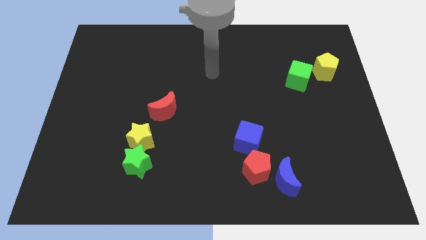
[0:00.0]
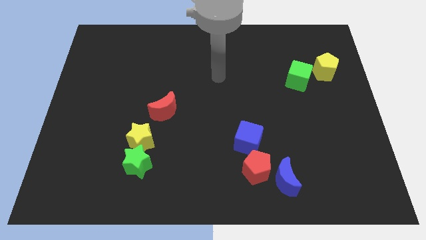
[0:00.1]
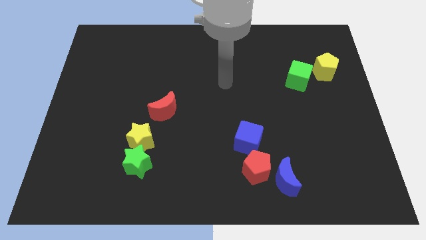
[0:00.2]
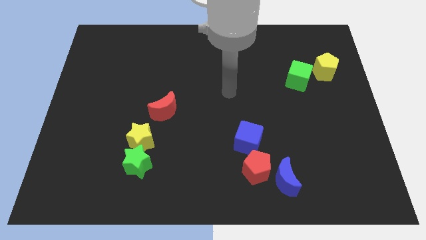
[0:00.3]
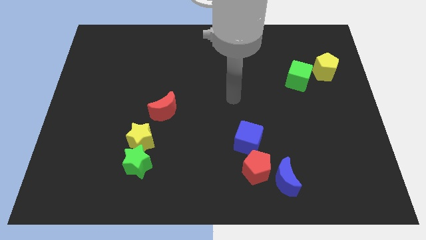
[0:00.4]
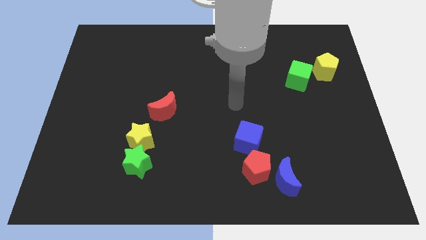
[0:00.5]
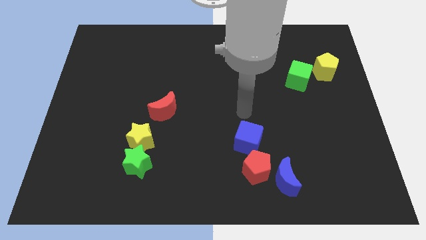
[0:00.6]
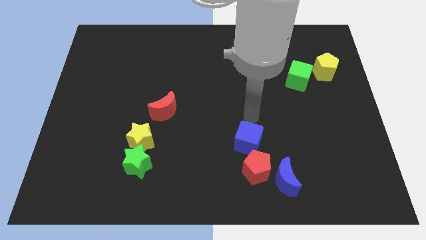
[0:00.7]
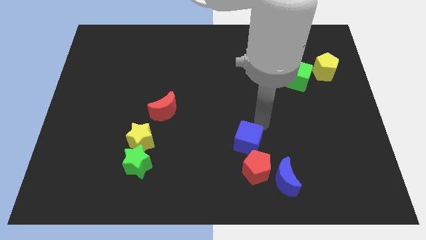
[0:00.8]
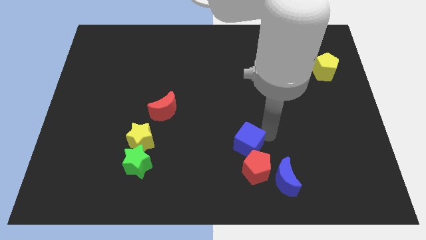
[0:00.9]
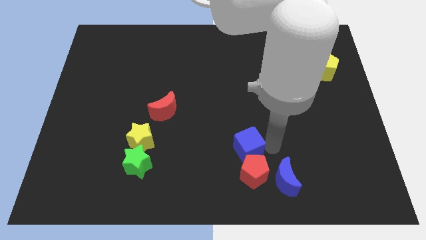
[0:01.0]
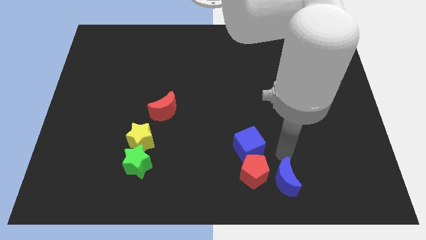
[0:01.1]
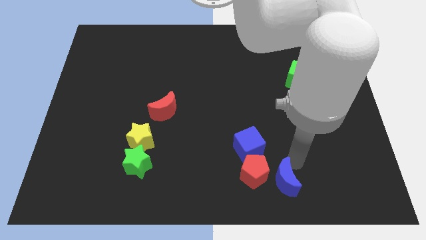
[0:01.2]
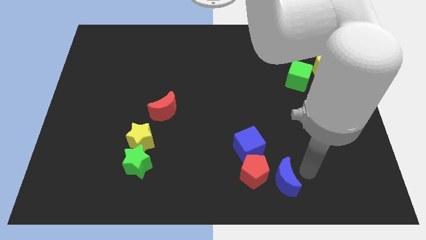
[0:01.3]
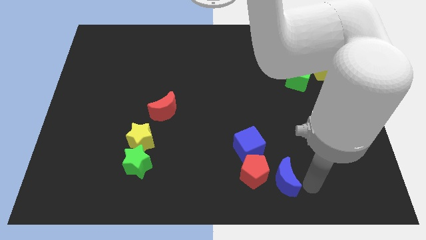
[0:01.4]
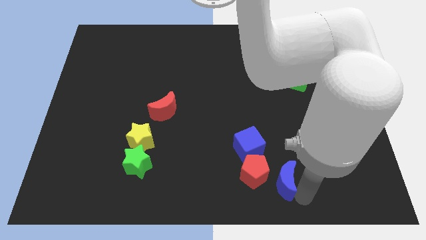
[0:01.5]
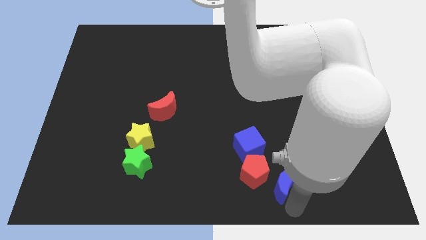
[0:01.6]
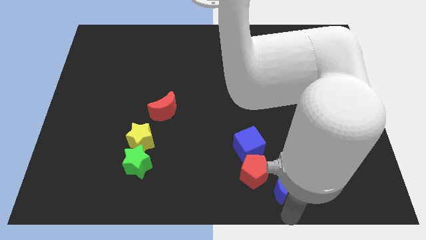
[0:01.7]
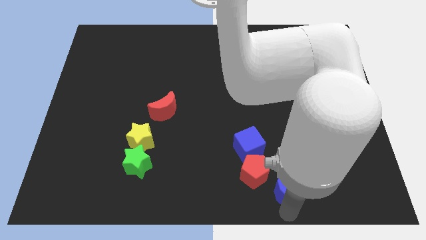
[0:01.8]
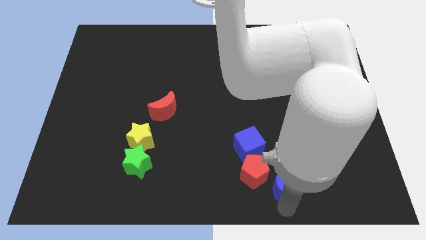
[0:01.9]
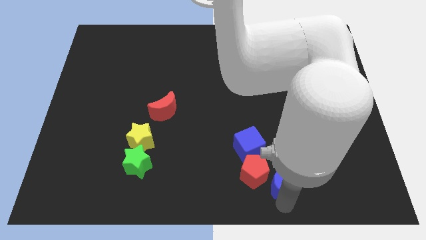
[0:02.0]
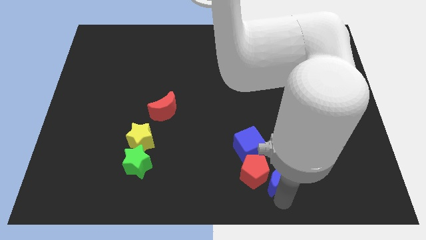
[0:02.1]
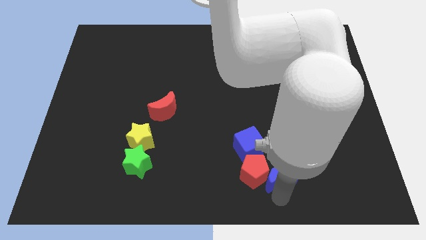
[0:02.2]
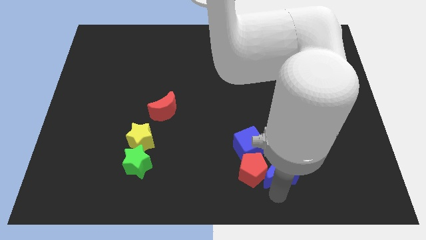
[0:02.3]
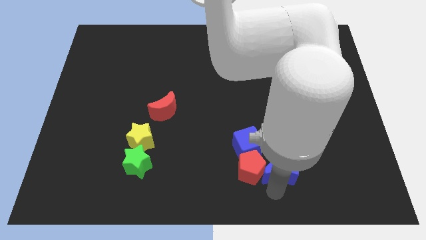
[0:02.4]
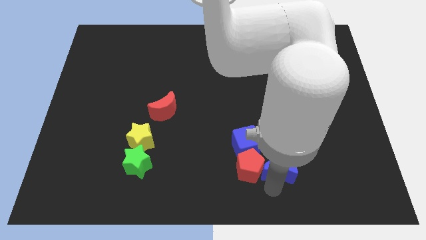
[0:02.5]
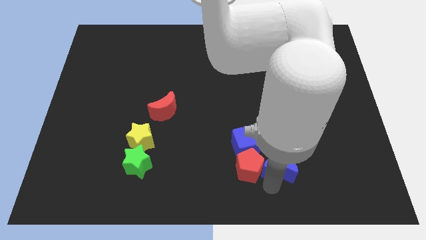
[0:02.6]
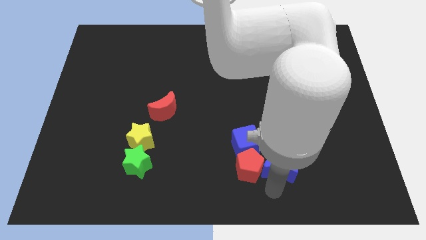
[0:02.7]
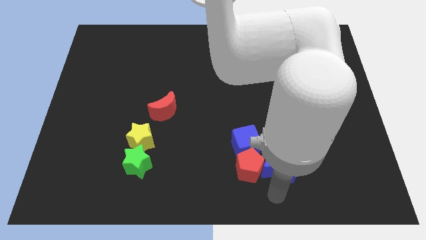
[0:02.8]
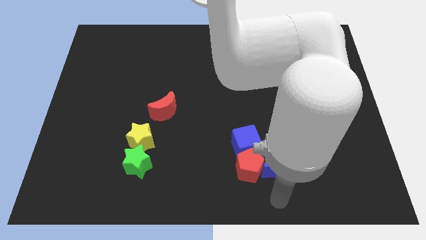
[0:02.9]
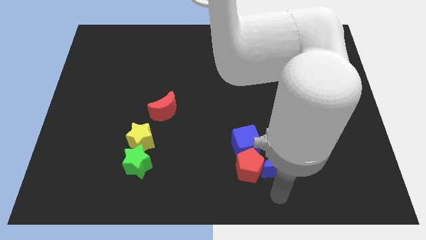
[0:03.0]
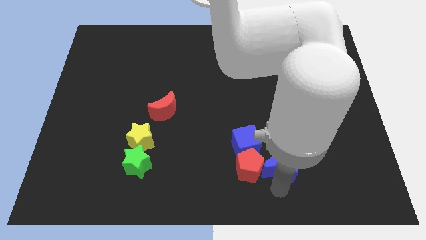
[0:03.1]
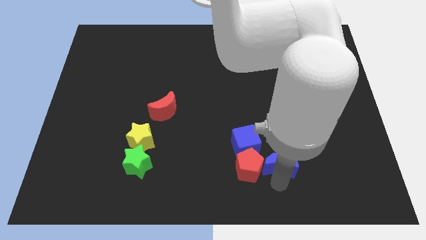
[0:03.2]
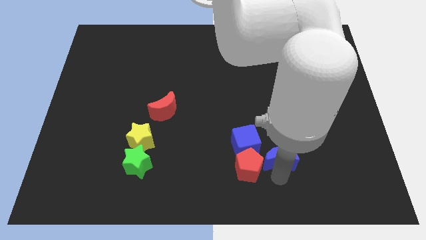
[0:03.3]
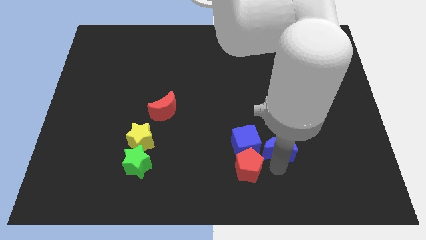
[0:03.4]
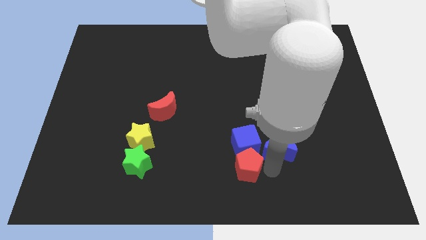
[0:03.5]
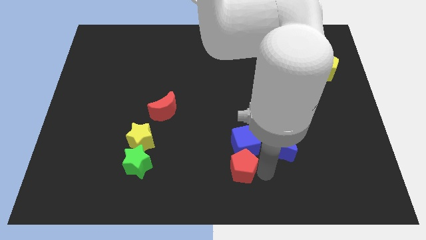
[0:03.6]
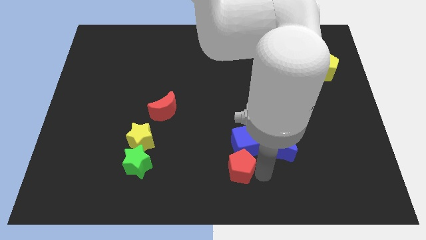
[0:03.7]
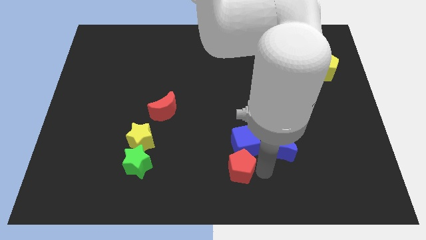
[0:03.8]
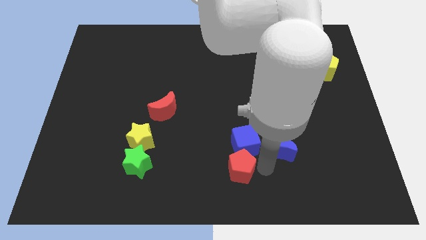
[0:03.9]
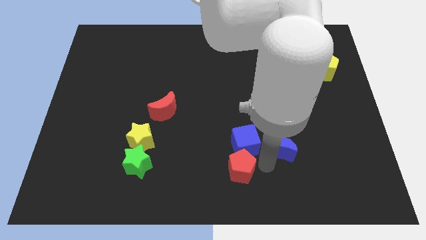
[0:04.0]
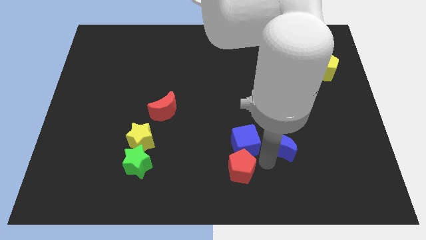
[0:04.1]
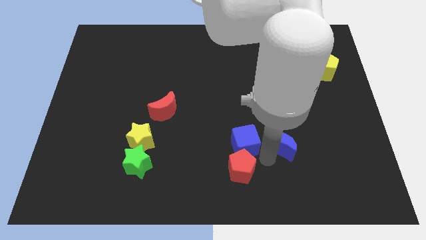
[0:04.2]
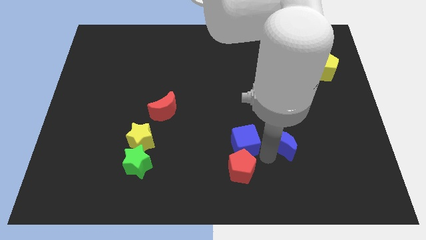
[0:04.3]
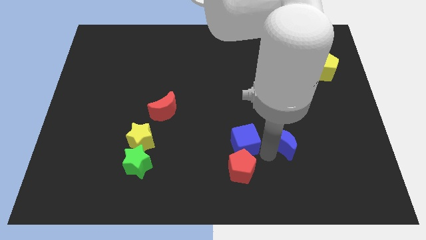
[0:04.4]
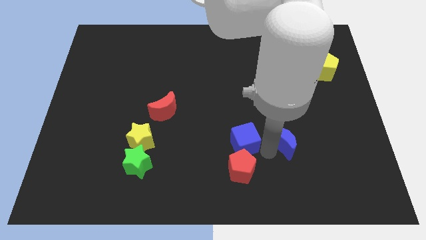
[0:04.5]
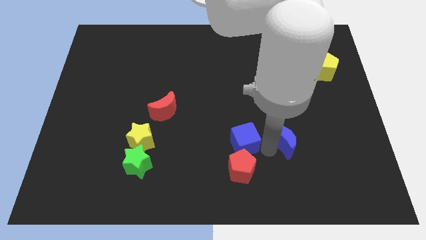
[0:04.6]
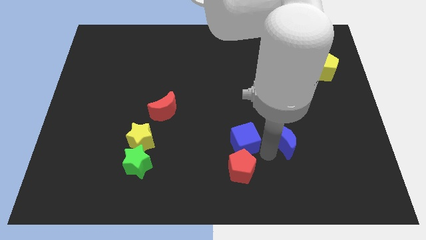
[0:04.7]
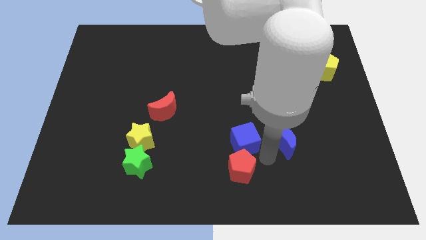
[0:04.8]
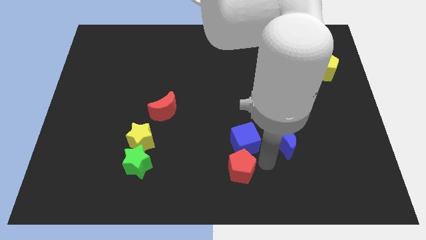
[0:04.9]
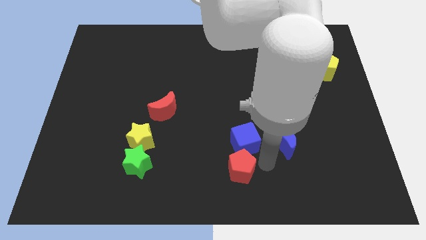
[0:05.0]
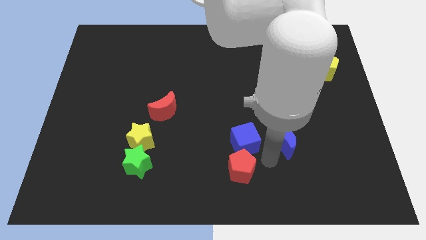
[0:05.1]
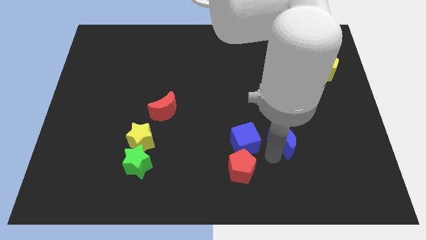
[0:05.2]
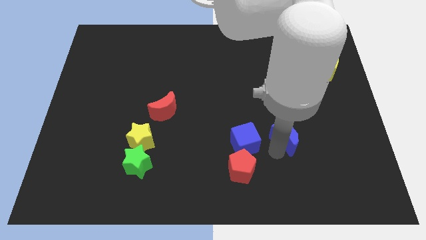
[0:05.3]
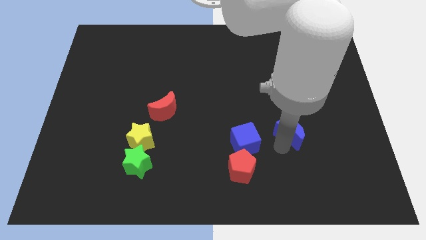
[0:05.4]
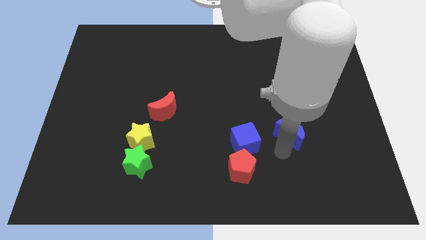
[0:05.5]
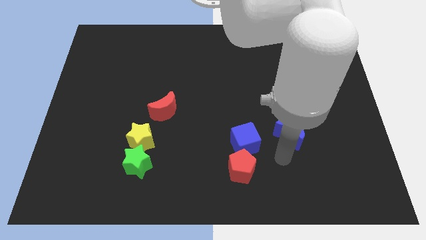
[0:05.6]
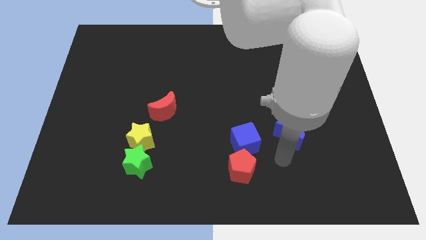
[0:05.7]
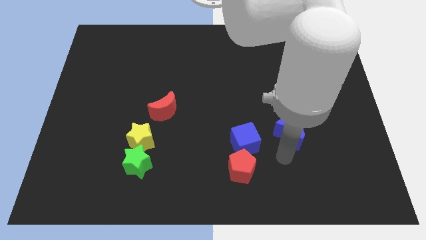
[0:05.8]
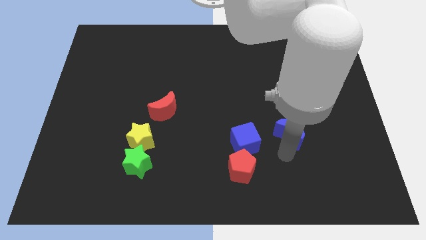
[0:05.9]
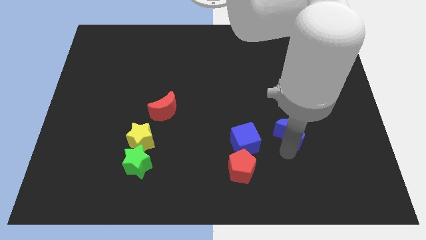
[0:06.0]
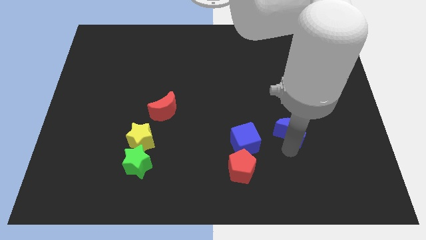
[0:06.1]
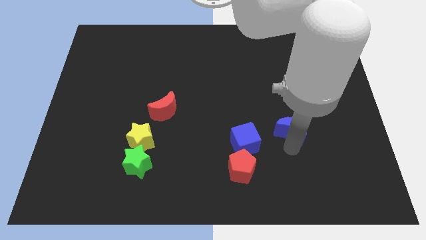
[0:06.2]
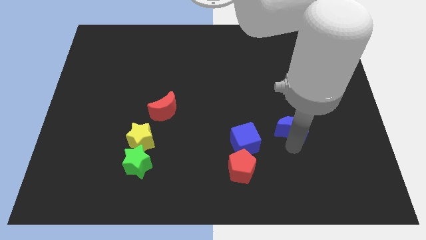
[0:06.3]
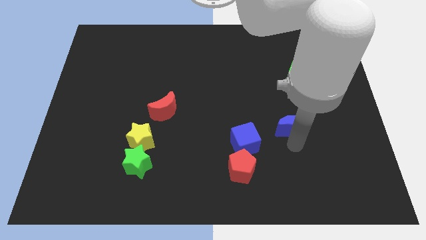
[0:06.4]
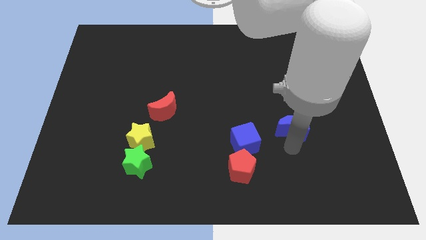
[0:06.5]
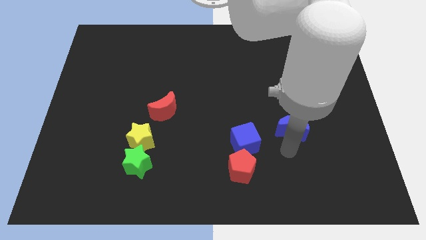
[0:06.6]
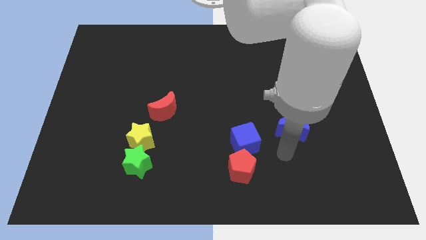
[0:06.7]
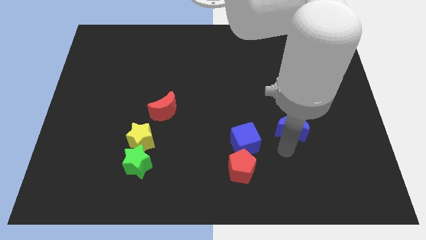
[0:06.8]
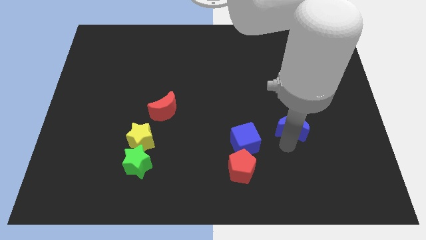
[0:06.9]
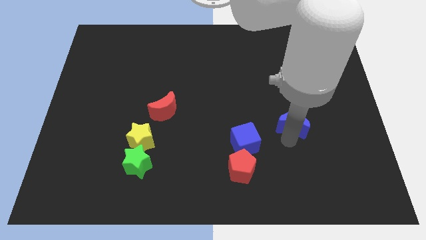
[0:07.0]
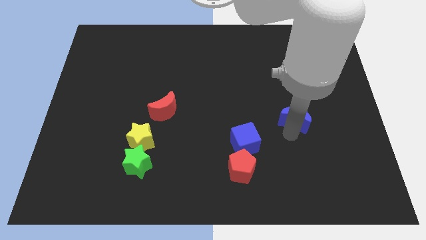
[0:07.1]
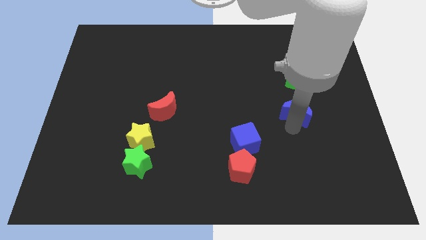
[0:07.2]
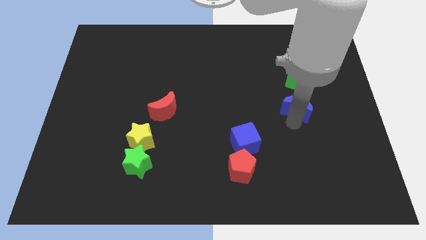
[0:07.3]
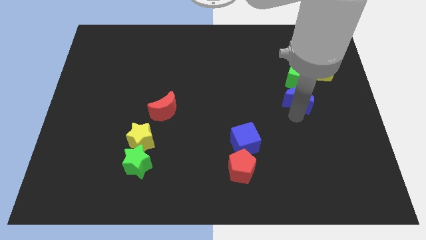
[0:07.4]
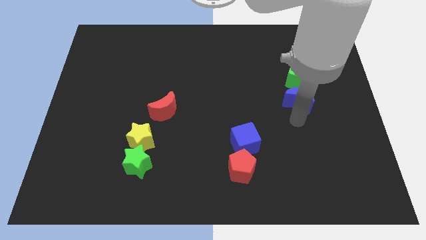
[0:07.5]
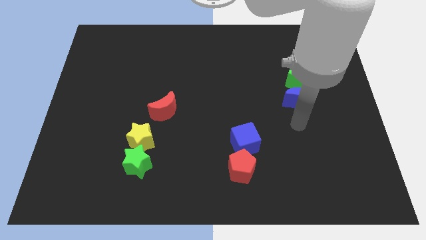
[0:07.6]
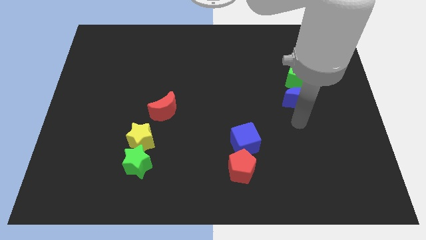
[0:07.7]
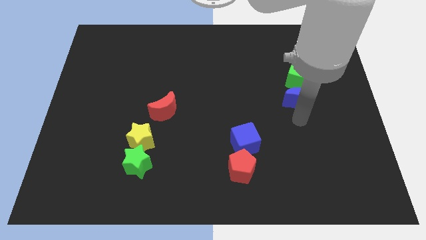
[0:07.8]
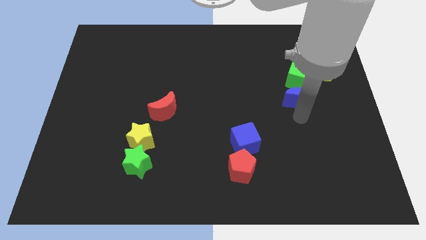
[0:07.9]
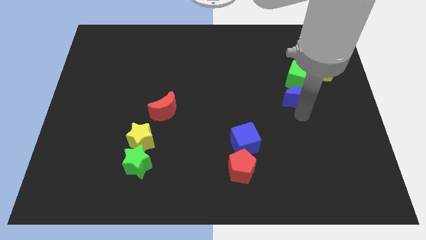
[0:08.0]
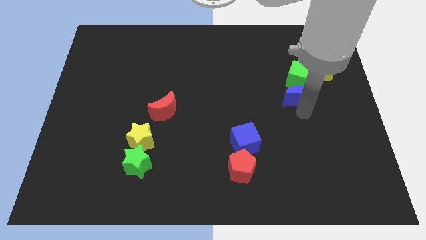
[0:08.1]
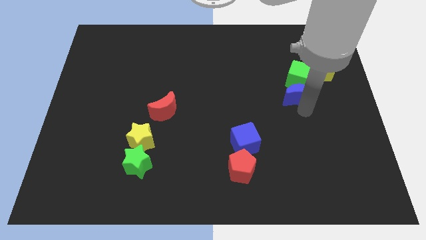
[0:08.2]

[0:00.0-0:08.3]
move the blue moon towards the green cube

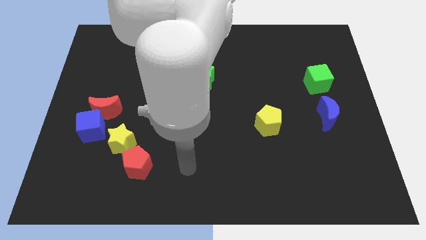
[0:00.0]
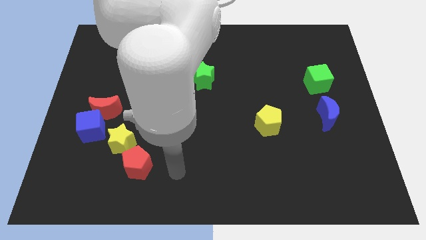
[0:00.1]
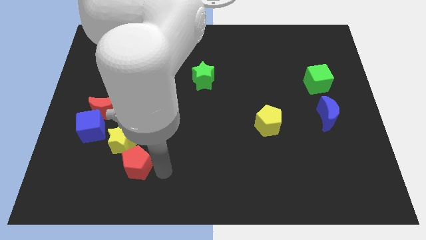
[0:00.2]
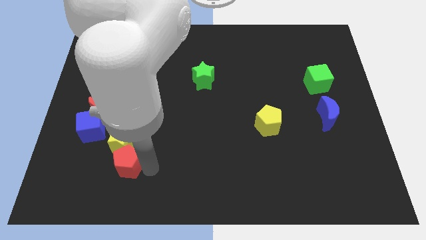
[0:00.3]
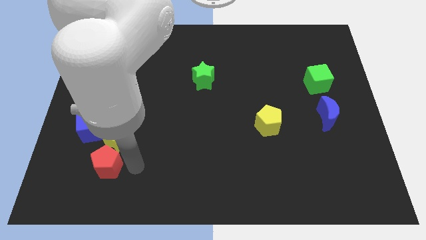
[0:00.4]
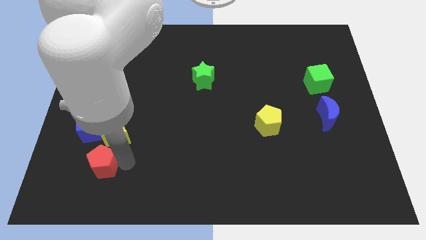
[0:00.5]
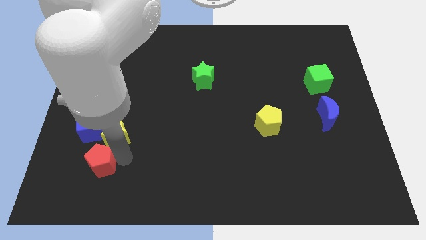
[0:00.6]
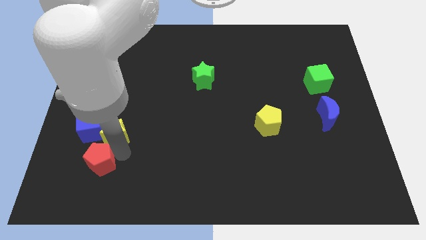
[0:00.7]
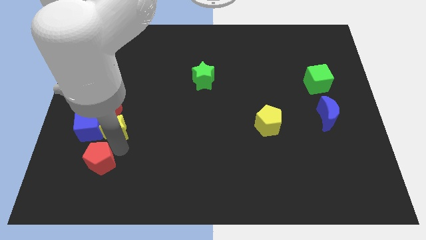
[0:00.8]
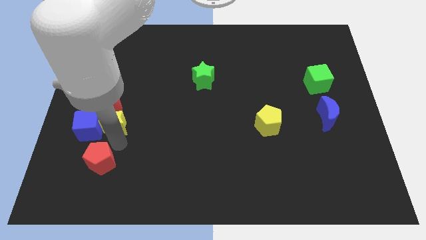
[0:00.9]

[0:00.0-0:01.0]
slide the yellow star to the red moon
